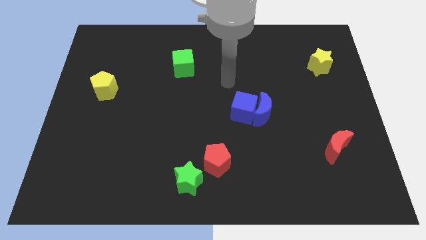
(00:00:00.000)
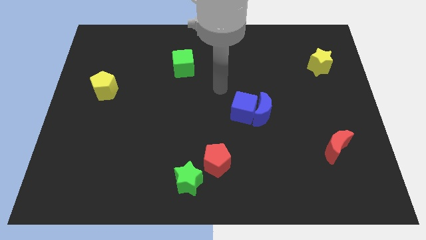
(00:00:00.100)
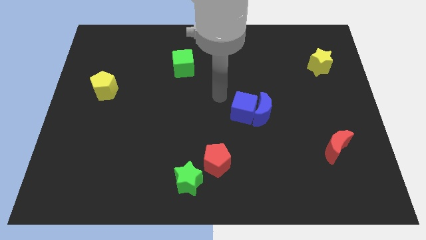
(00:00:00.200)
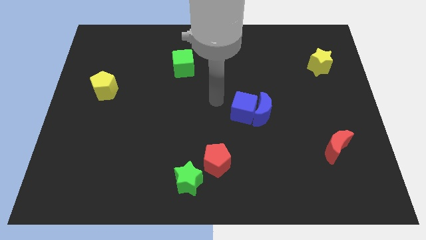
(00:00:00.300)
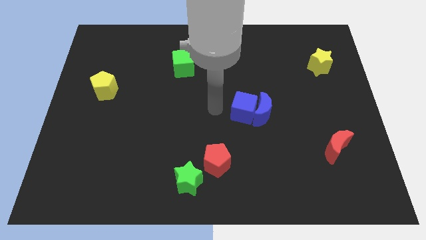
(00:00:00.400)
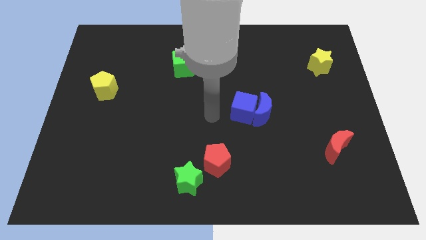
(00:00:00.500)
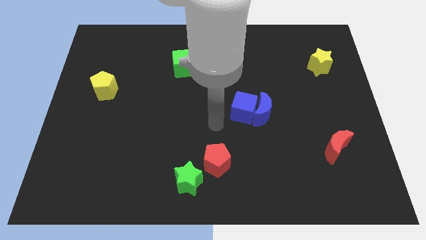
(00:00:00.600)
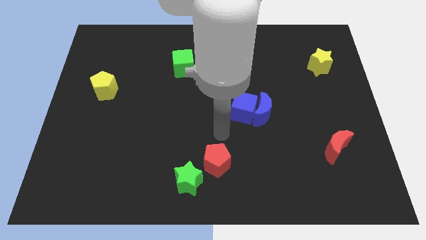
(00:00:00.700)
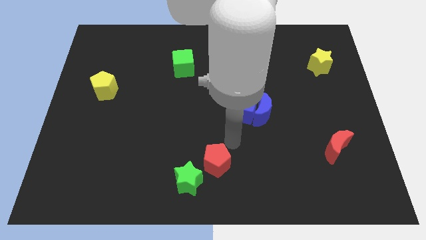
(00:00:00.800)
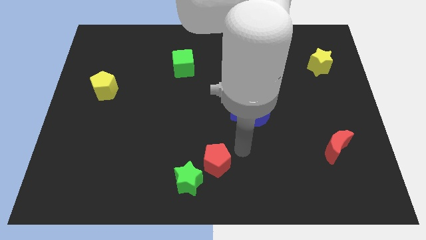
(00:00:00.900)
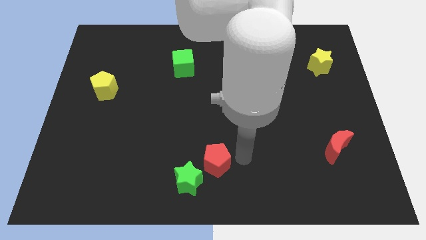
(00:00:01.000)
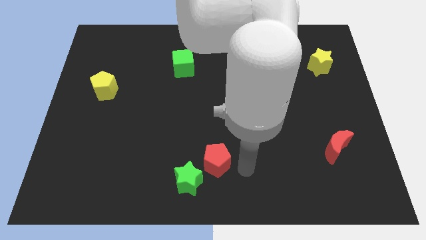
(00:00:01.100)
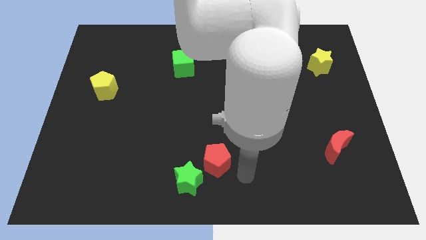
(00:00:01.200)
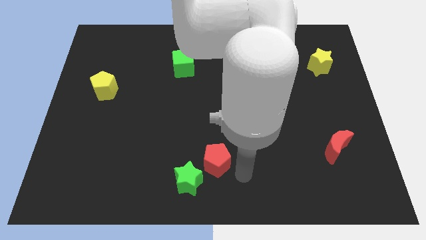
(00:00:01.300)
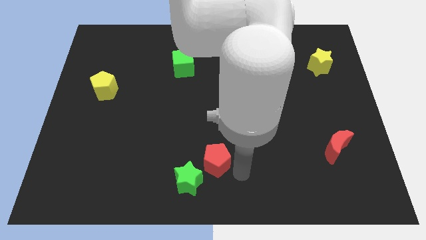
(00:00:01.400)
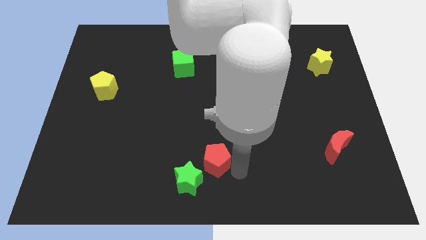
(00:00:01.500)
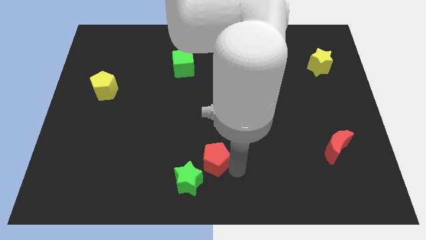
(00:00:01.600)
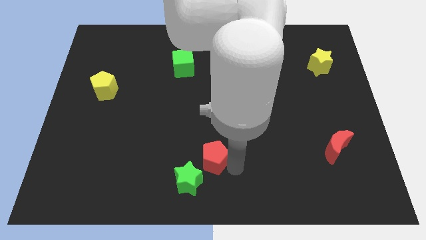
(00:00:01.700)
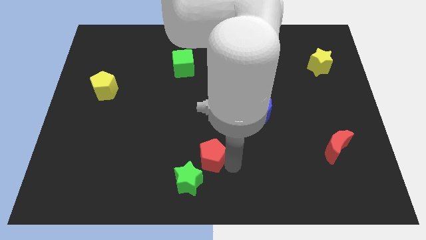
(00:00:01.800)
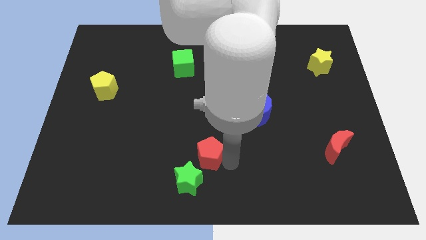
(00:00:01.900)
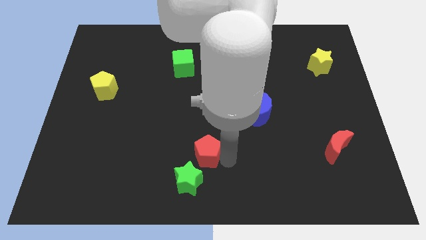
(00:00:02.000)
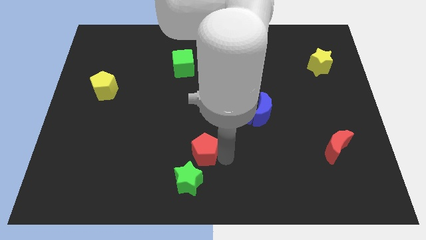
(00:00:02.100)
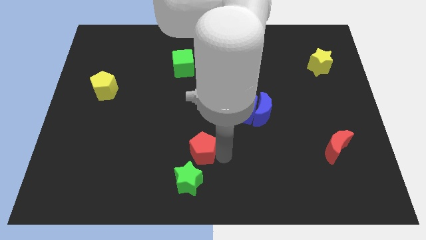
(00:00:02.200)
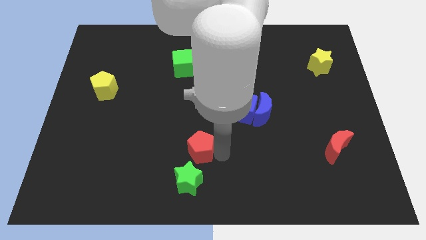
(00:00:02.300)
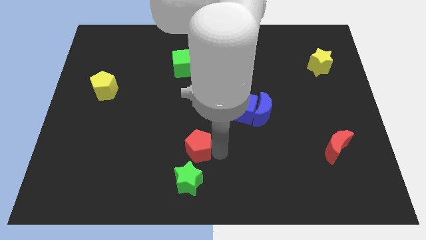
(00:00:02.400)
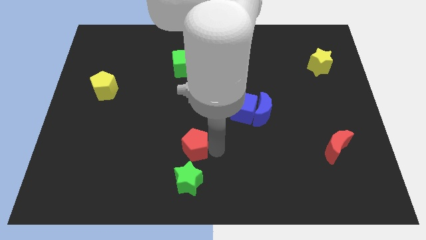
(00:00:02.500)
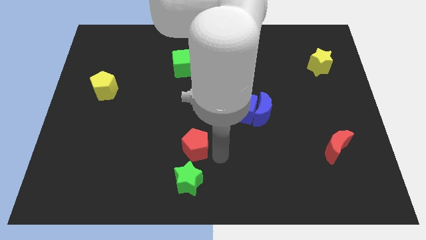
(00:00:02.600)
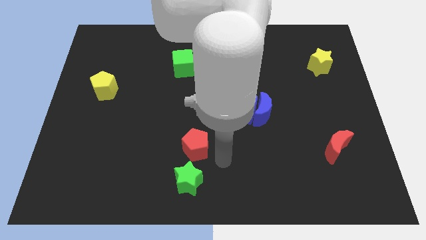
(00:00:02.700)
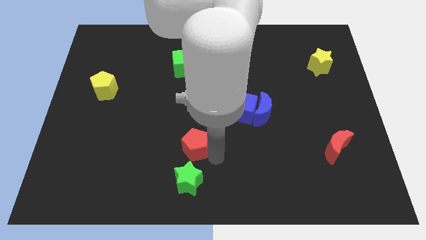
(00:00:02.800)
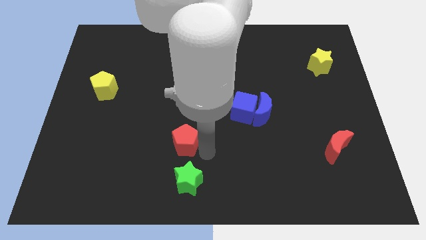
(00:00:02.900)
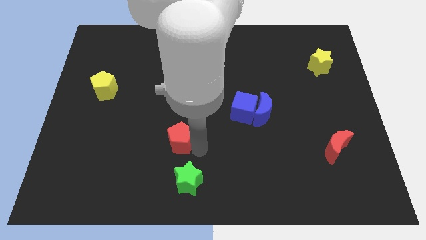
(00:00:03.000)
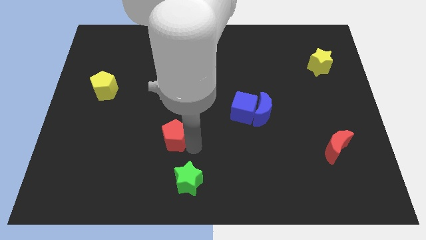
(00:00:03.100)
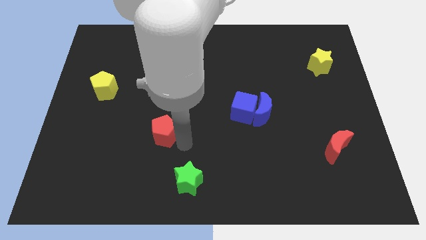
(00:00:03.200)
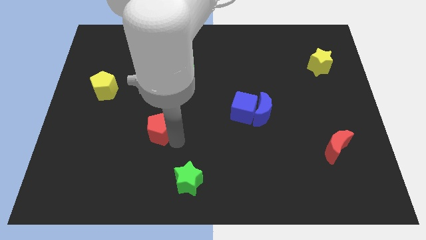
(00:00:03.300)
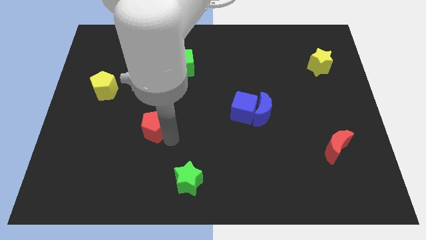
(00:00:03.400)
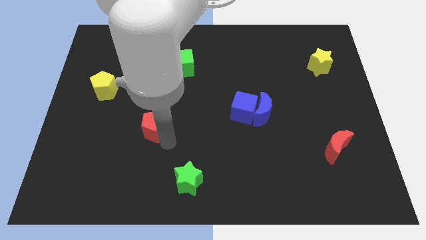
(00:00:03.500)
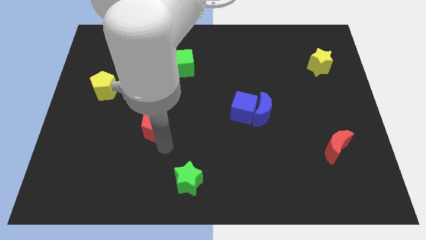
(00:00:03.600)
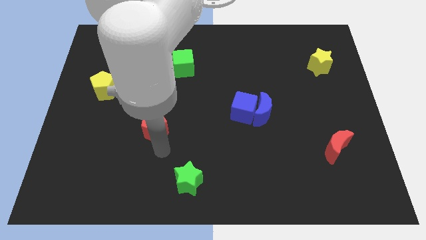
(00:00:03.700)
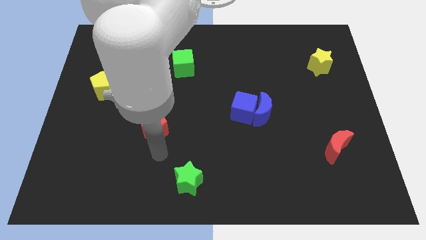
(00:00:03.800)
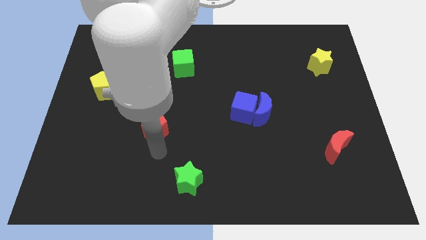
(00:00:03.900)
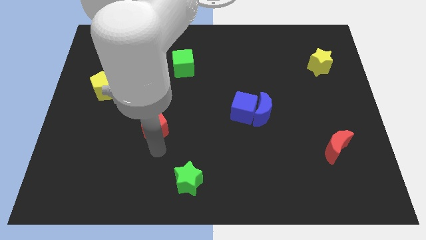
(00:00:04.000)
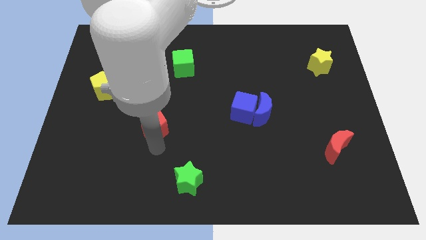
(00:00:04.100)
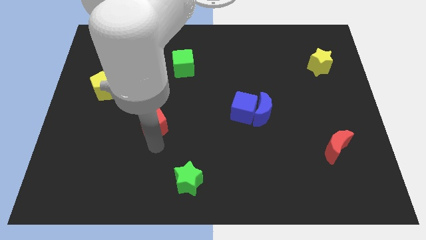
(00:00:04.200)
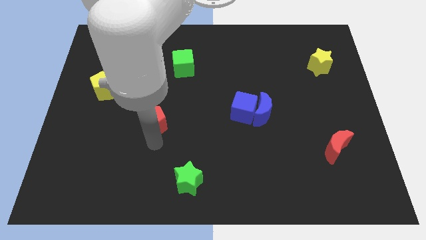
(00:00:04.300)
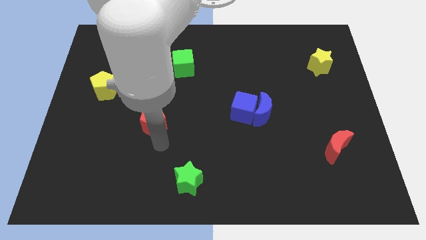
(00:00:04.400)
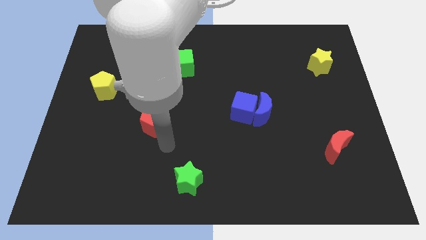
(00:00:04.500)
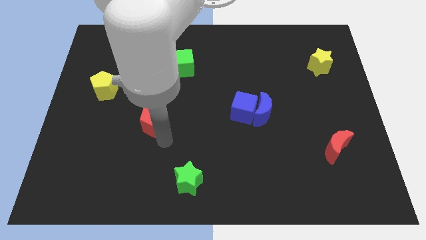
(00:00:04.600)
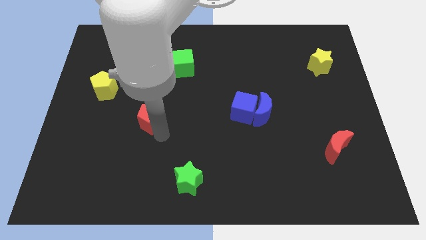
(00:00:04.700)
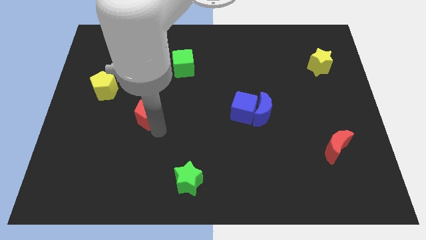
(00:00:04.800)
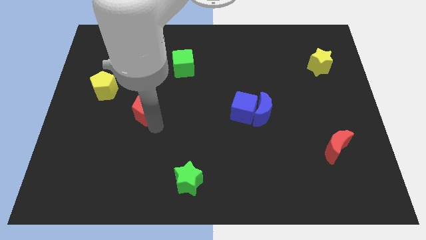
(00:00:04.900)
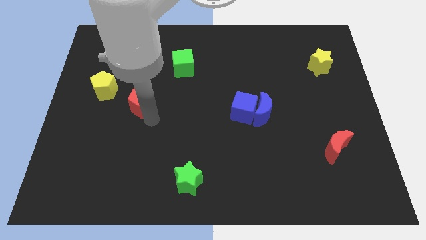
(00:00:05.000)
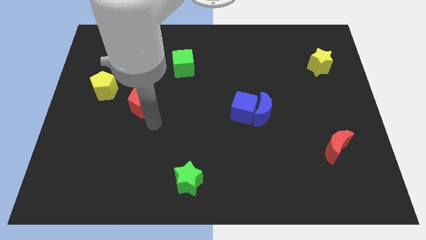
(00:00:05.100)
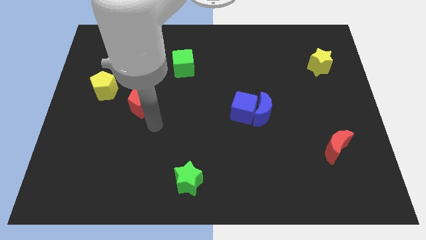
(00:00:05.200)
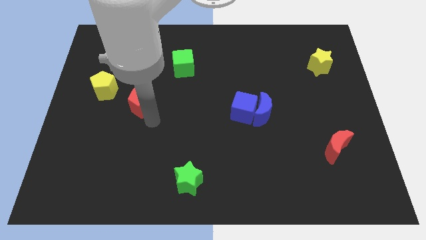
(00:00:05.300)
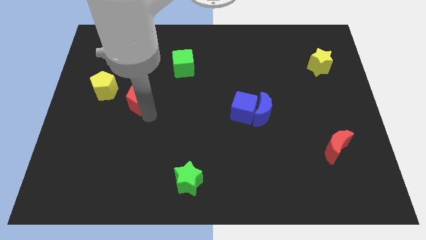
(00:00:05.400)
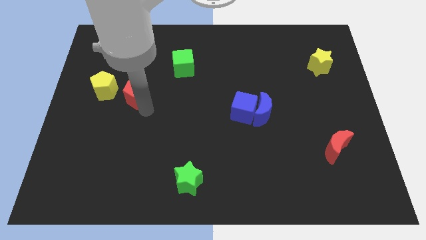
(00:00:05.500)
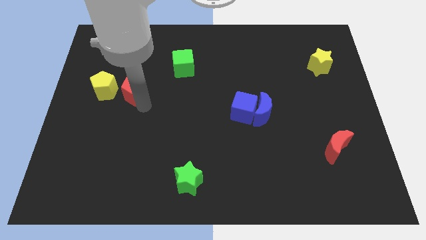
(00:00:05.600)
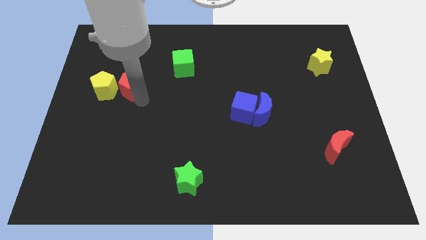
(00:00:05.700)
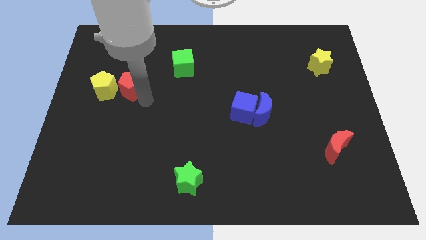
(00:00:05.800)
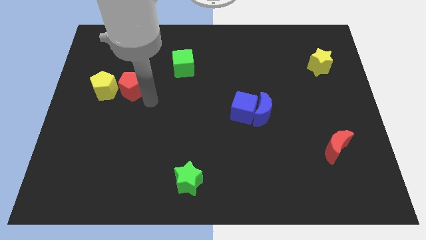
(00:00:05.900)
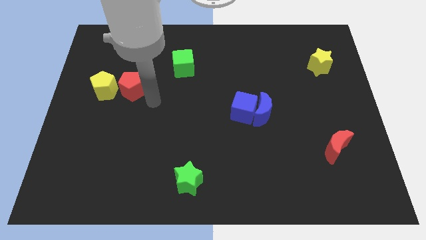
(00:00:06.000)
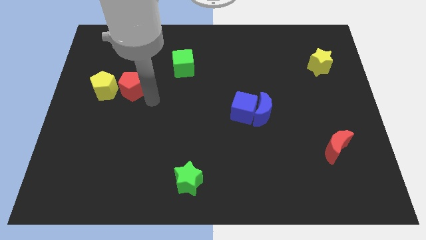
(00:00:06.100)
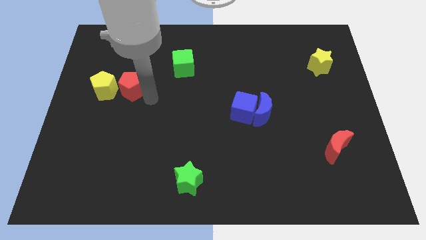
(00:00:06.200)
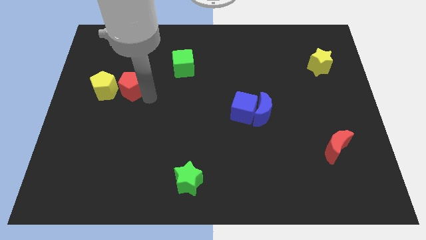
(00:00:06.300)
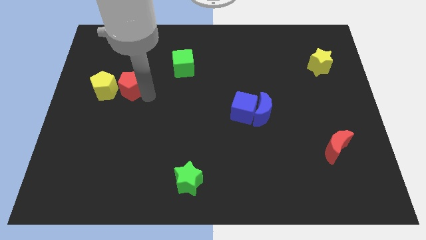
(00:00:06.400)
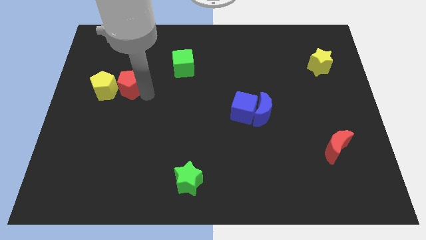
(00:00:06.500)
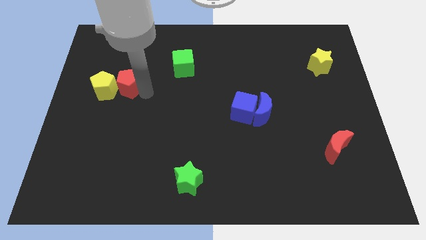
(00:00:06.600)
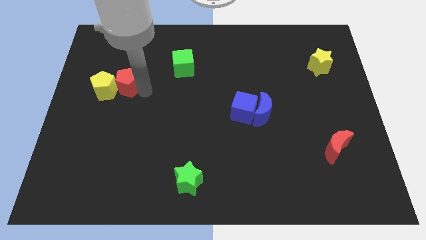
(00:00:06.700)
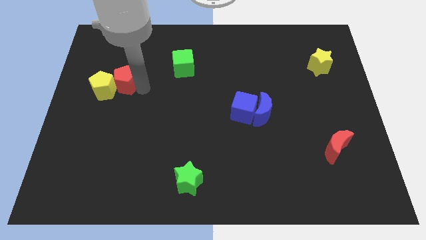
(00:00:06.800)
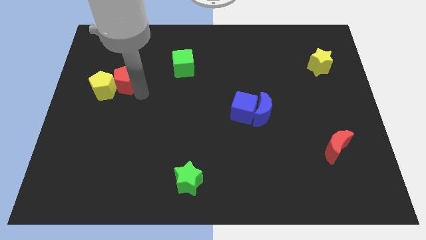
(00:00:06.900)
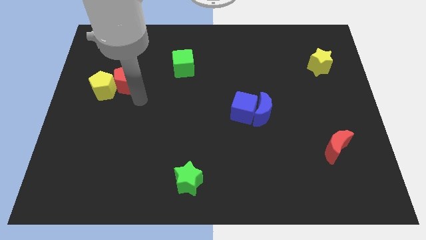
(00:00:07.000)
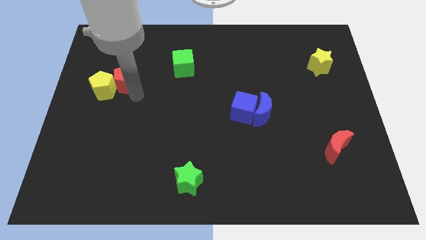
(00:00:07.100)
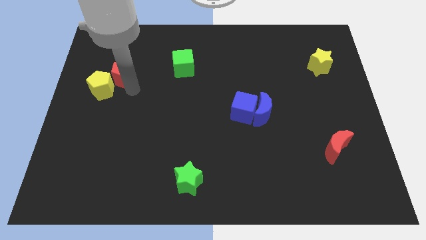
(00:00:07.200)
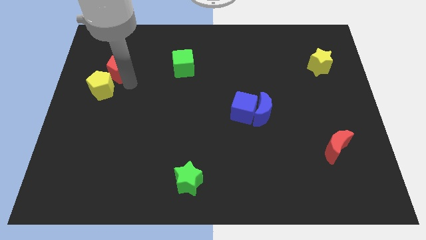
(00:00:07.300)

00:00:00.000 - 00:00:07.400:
move the red pentagon above the yellow pentagon

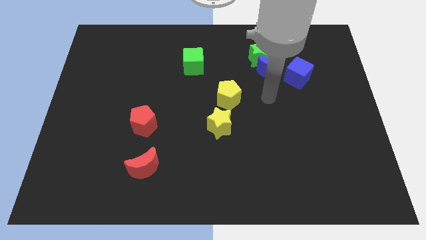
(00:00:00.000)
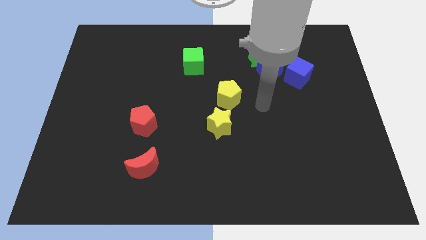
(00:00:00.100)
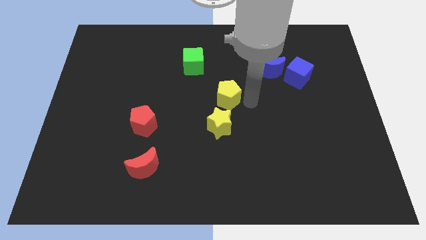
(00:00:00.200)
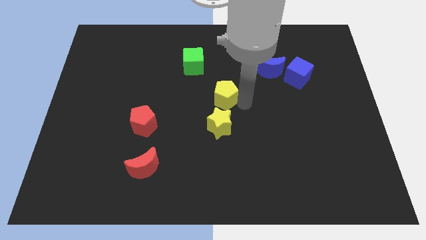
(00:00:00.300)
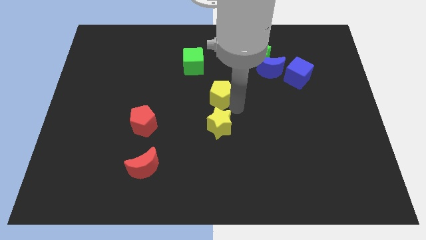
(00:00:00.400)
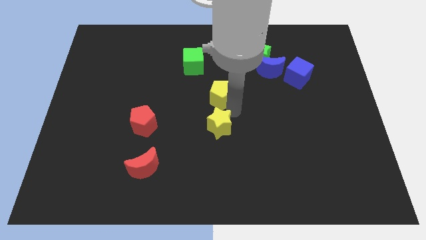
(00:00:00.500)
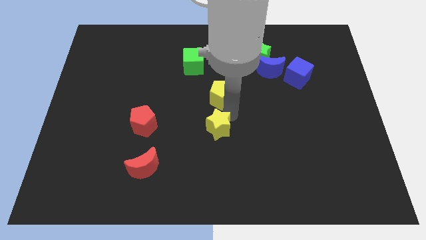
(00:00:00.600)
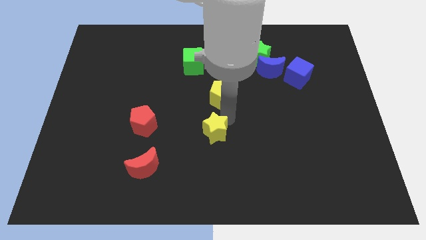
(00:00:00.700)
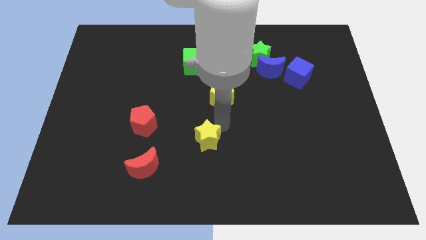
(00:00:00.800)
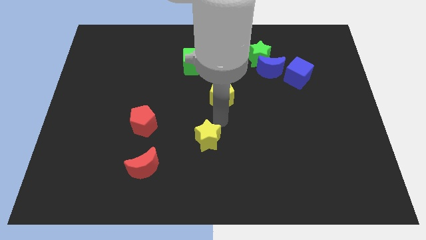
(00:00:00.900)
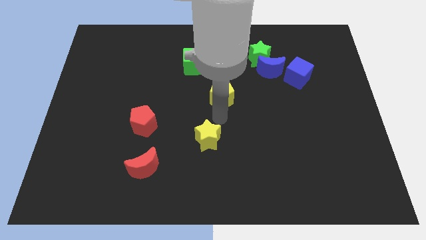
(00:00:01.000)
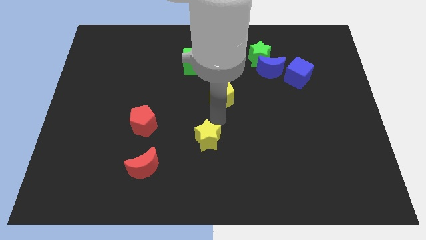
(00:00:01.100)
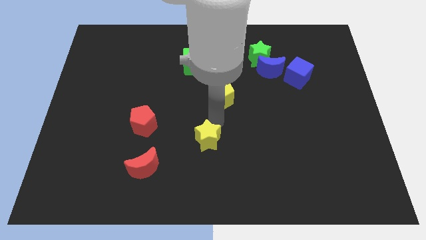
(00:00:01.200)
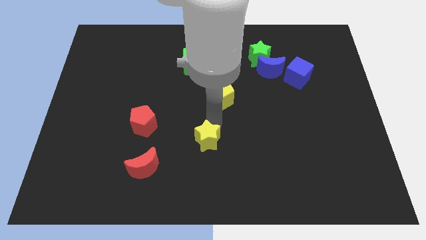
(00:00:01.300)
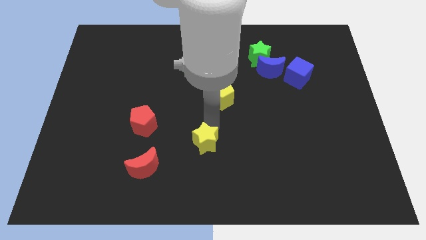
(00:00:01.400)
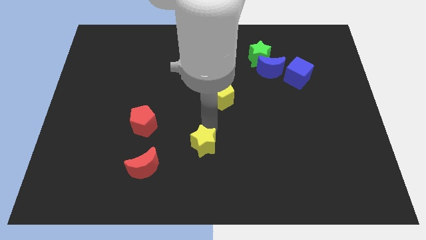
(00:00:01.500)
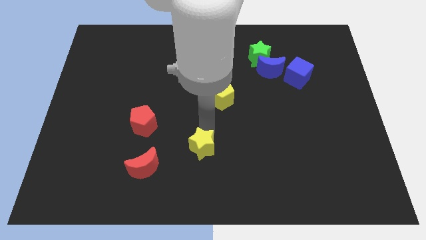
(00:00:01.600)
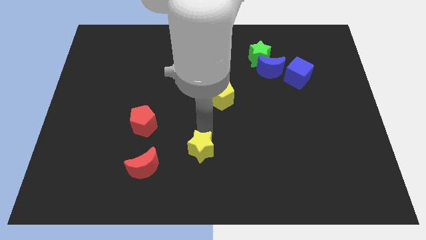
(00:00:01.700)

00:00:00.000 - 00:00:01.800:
move the yellow star right of the red moon
